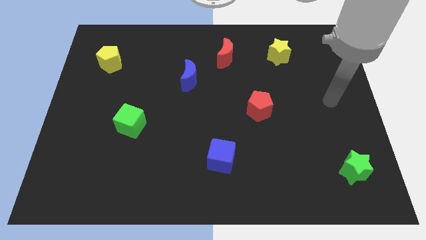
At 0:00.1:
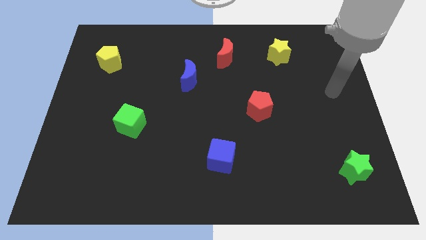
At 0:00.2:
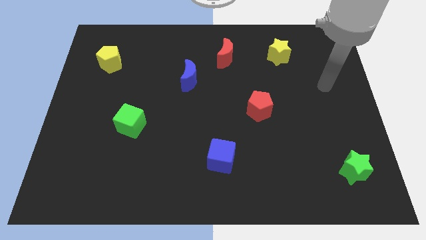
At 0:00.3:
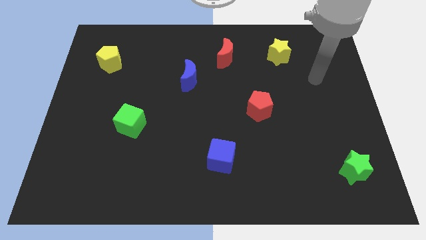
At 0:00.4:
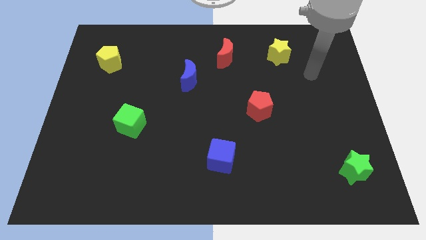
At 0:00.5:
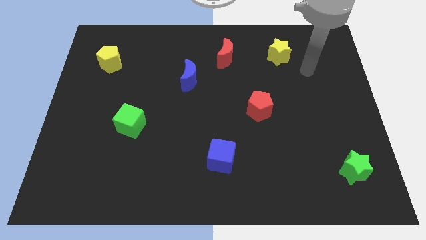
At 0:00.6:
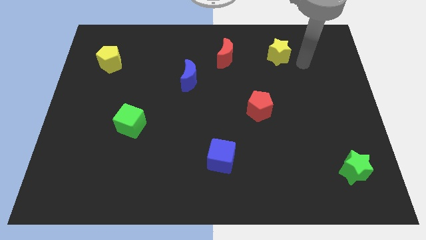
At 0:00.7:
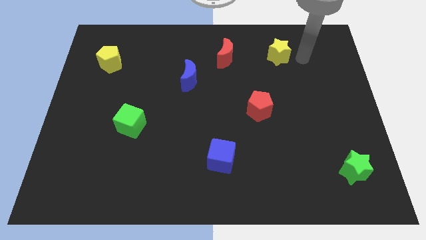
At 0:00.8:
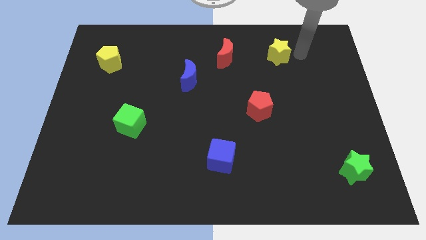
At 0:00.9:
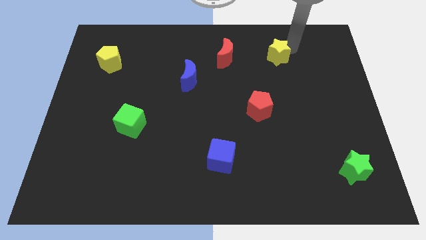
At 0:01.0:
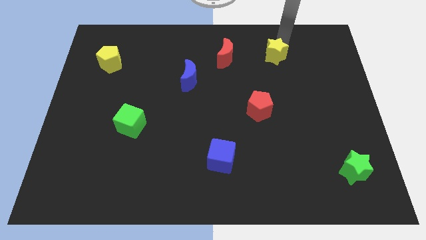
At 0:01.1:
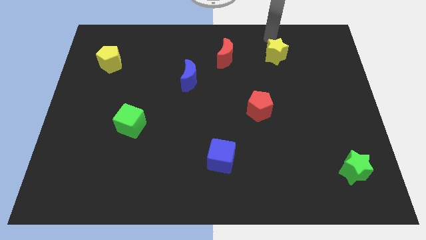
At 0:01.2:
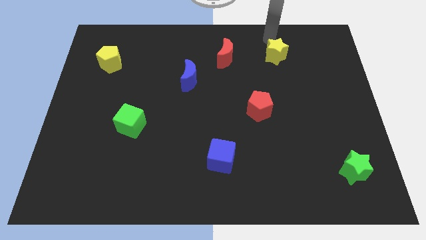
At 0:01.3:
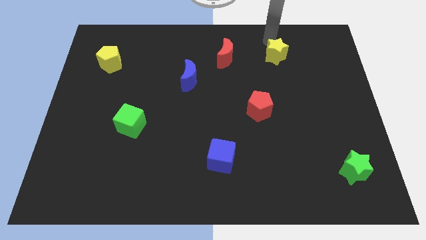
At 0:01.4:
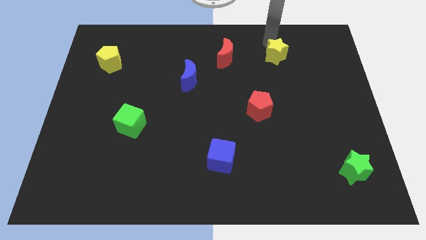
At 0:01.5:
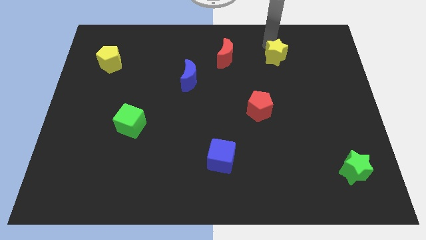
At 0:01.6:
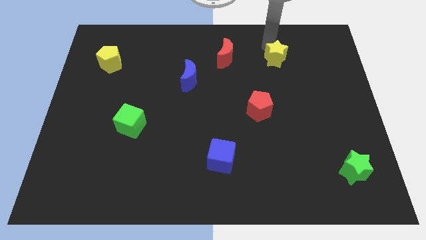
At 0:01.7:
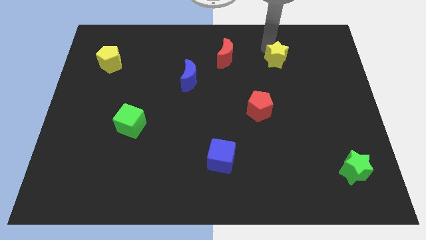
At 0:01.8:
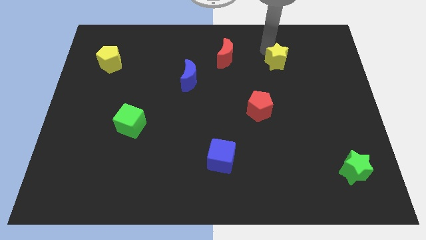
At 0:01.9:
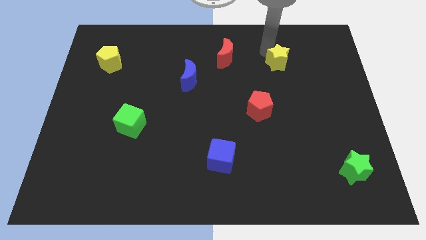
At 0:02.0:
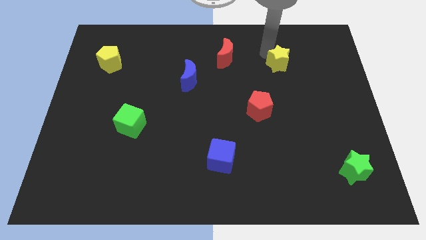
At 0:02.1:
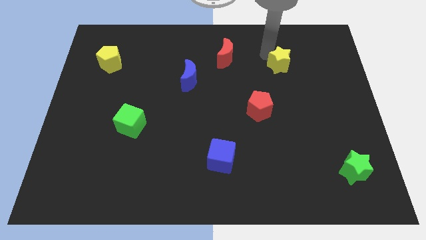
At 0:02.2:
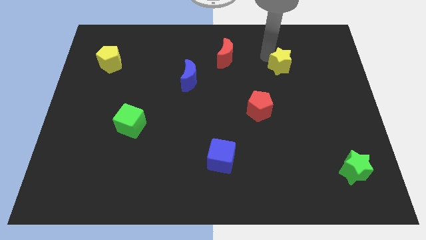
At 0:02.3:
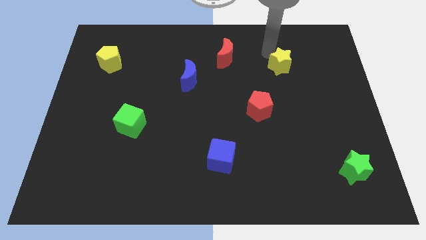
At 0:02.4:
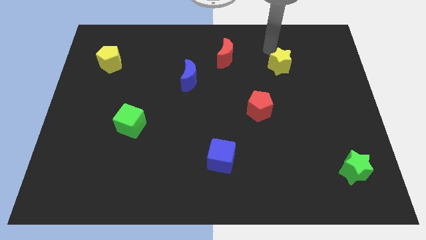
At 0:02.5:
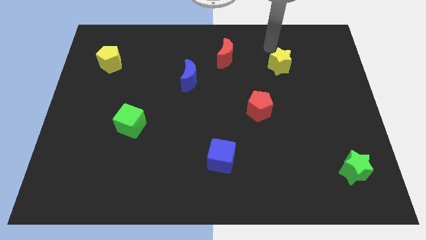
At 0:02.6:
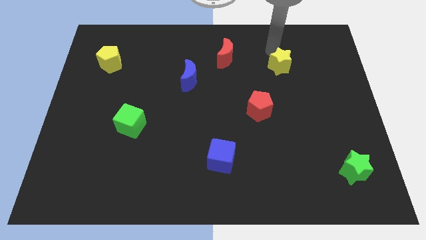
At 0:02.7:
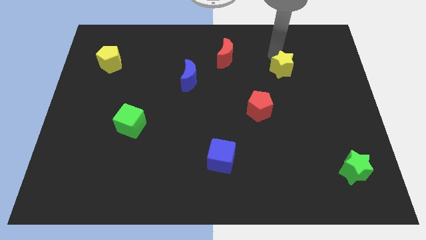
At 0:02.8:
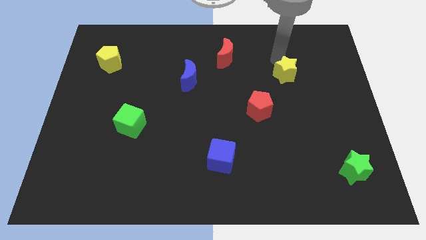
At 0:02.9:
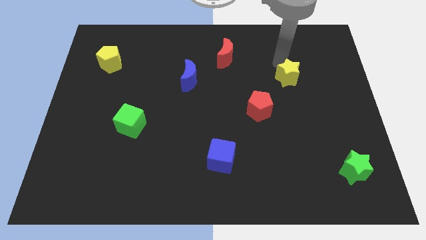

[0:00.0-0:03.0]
slightly slide the yellow star down

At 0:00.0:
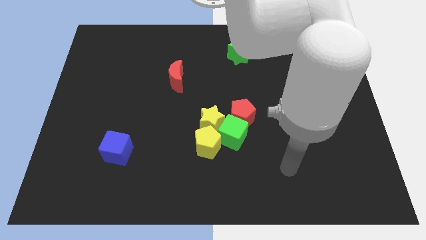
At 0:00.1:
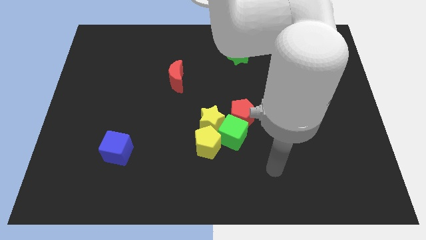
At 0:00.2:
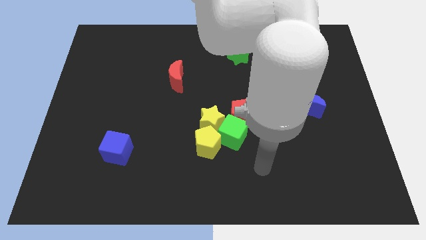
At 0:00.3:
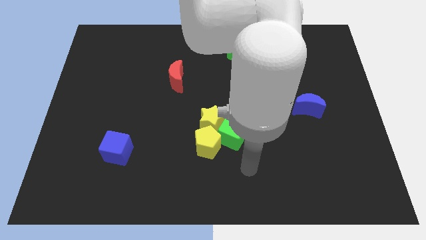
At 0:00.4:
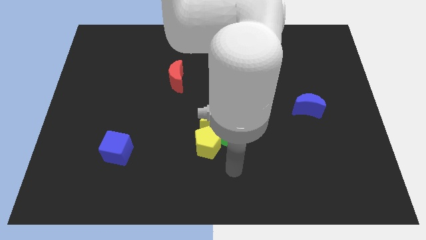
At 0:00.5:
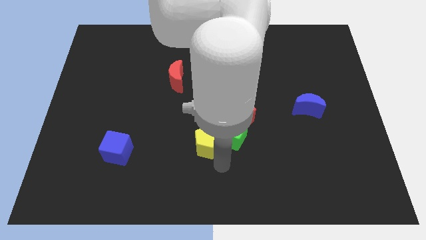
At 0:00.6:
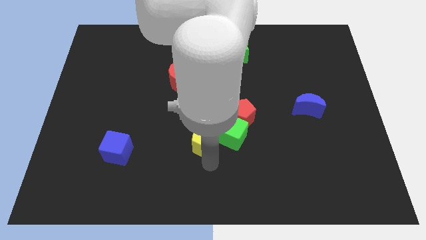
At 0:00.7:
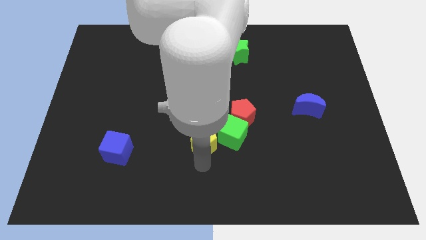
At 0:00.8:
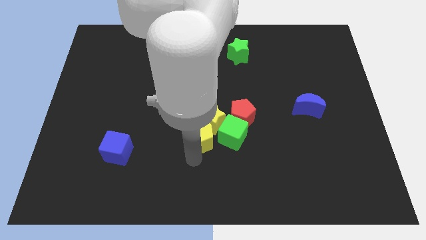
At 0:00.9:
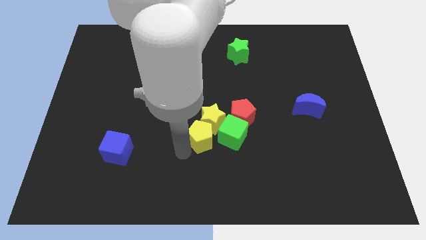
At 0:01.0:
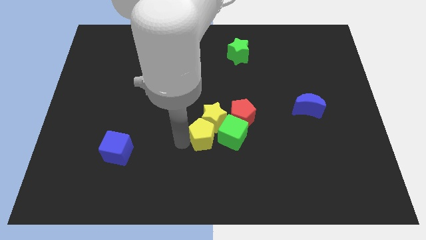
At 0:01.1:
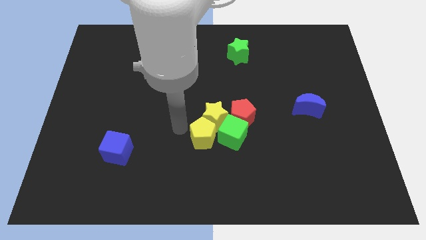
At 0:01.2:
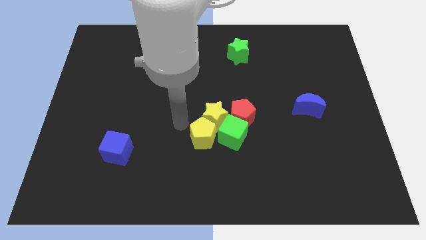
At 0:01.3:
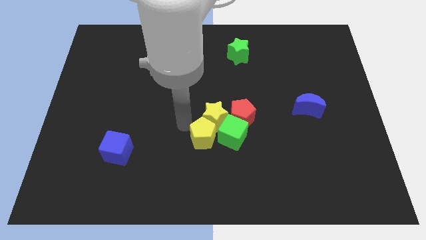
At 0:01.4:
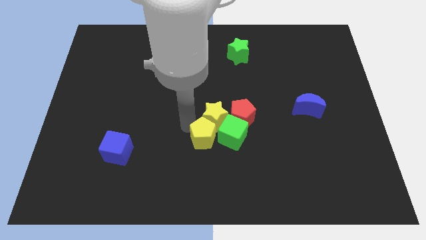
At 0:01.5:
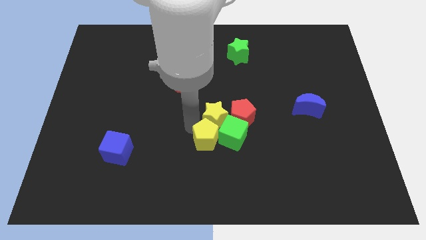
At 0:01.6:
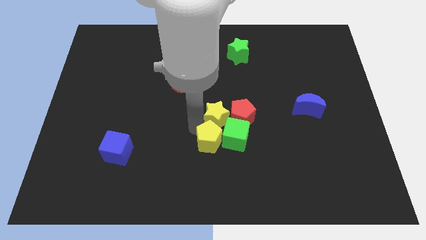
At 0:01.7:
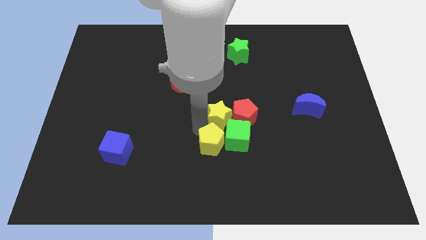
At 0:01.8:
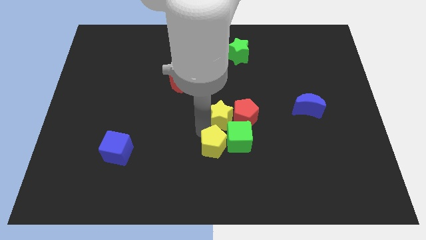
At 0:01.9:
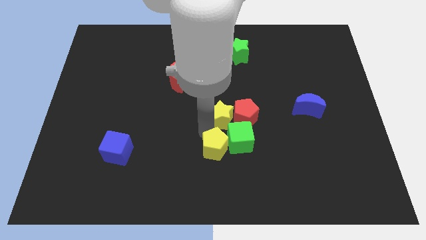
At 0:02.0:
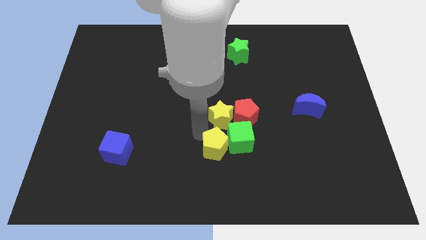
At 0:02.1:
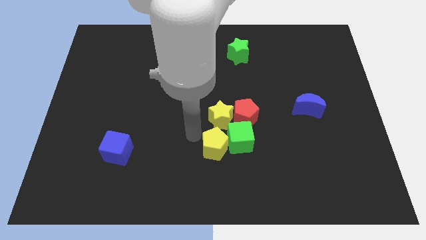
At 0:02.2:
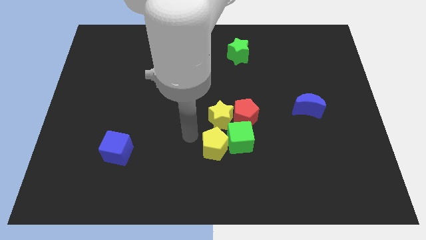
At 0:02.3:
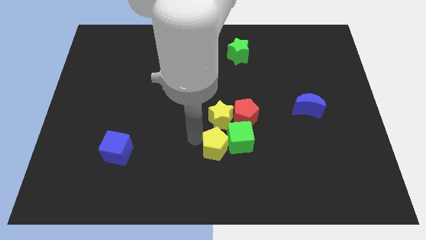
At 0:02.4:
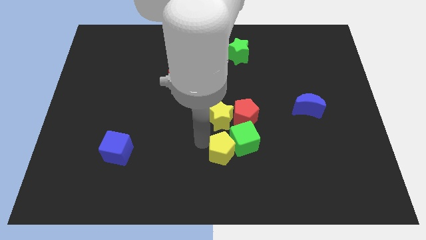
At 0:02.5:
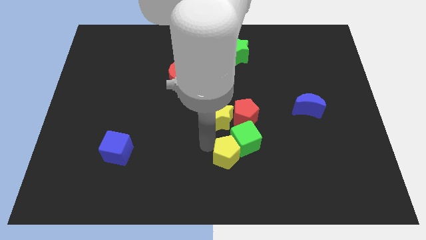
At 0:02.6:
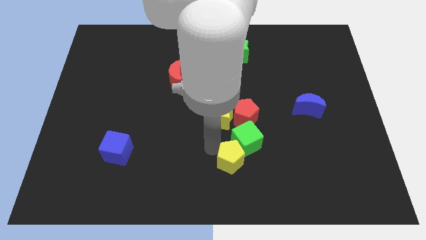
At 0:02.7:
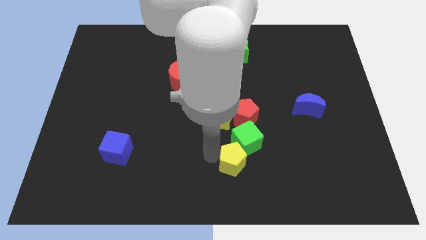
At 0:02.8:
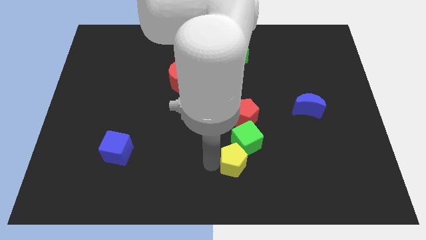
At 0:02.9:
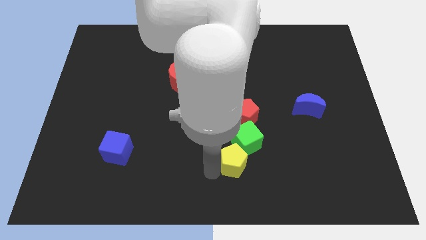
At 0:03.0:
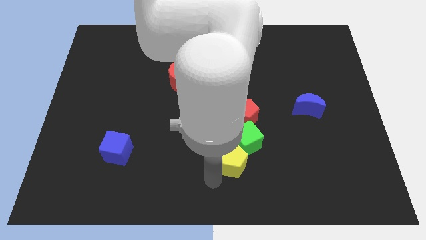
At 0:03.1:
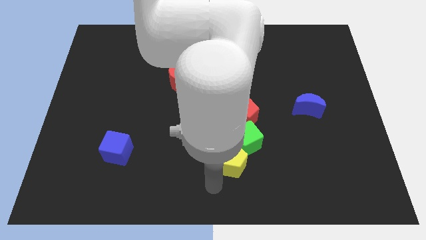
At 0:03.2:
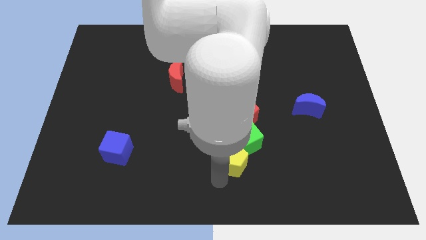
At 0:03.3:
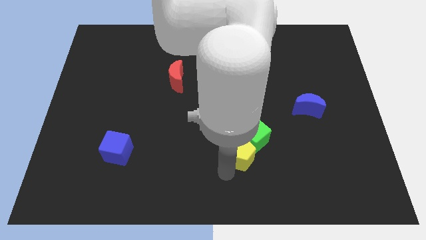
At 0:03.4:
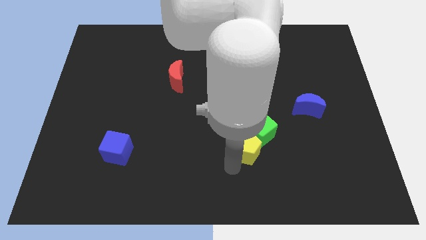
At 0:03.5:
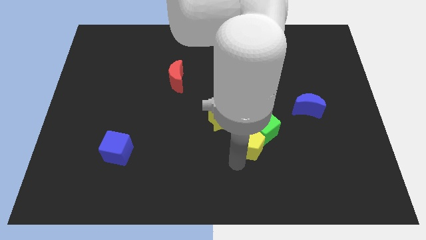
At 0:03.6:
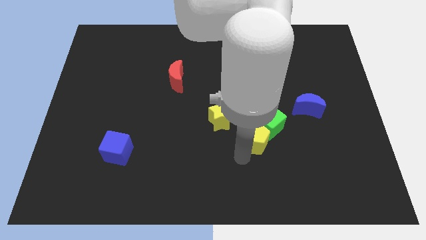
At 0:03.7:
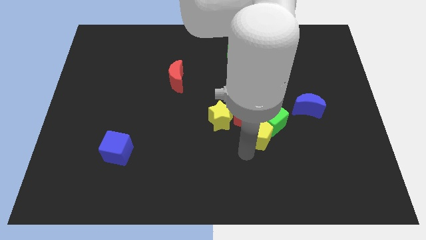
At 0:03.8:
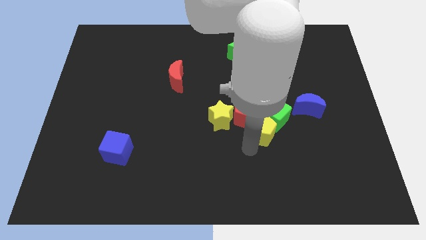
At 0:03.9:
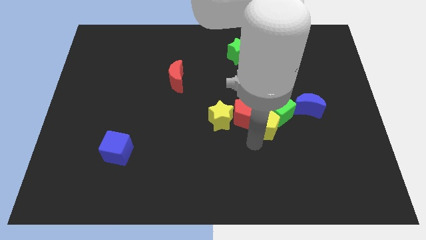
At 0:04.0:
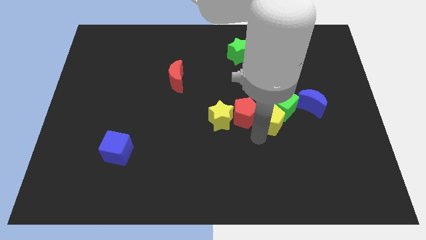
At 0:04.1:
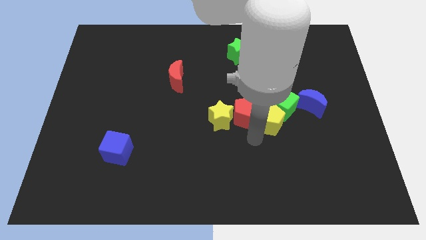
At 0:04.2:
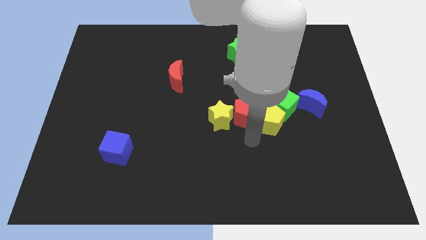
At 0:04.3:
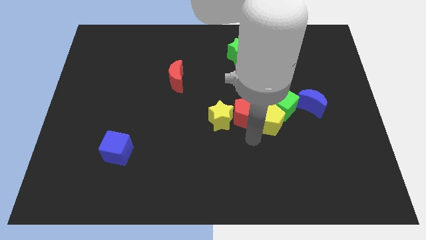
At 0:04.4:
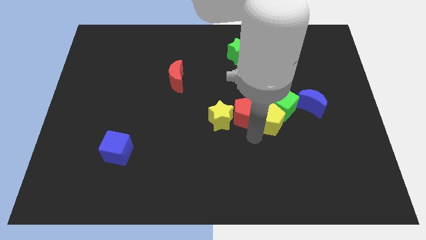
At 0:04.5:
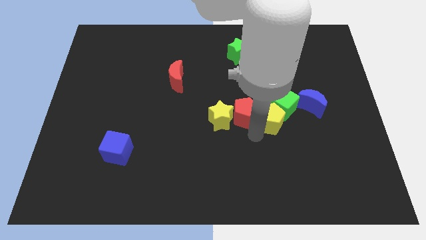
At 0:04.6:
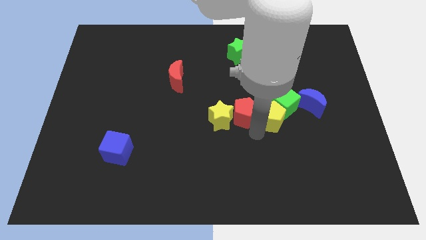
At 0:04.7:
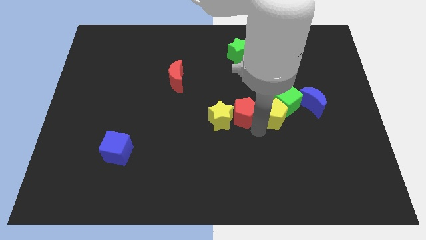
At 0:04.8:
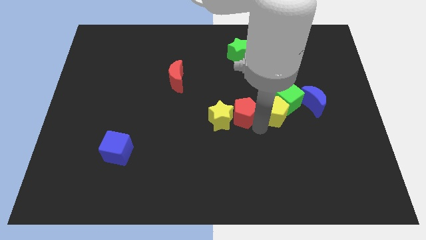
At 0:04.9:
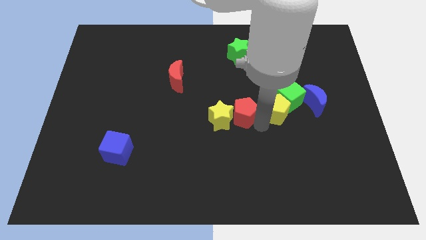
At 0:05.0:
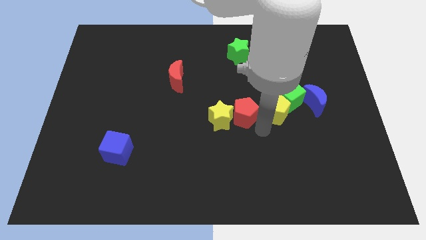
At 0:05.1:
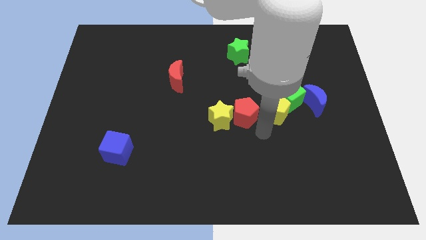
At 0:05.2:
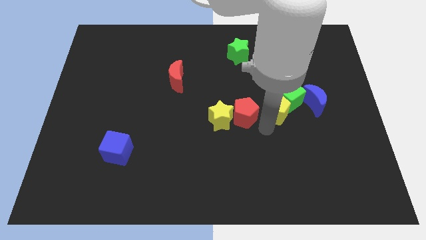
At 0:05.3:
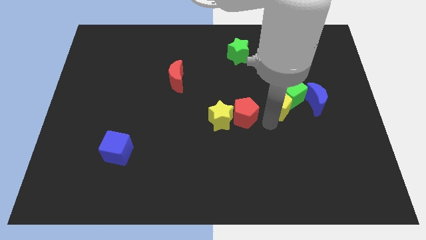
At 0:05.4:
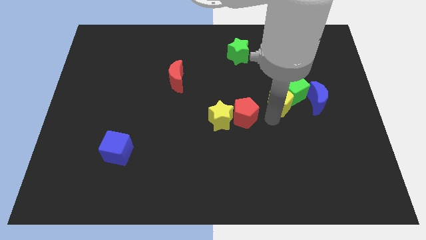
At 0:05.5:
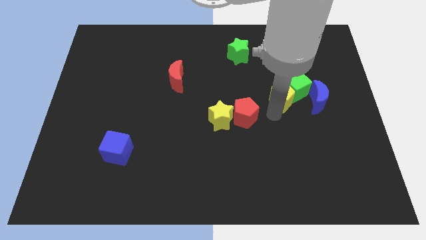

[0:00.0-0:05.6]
push the yellow pentagon upwards and to the right

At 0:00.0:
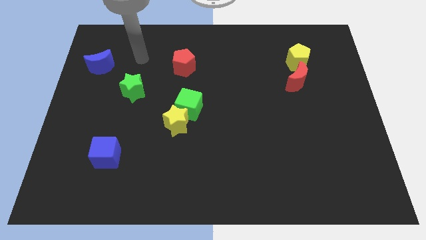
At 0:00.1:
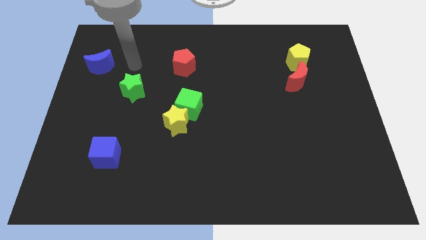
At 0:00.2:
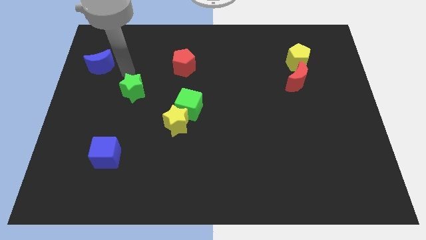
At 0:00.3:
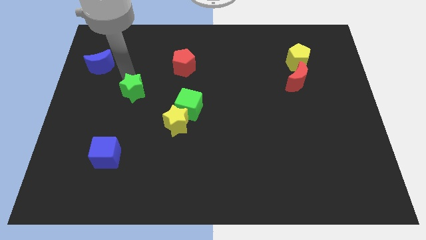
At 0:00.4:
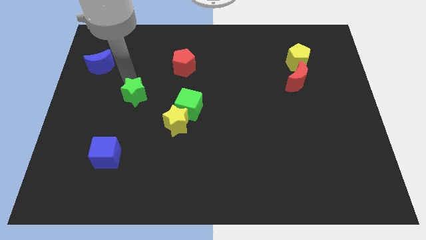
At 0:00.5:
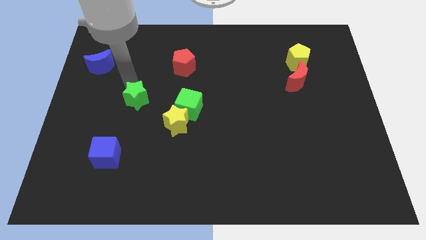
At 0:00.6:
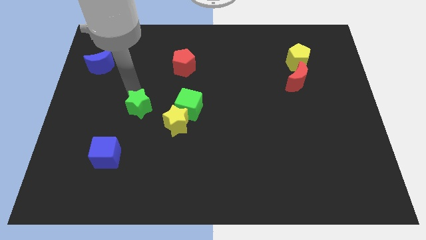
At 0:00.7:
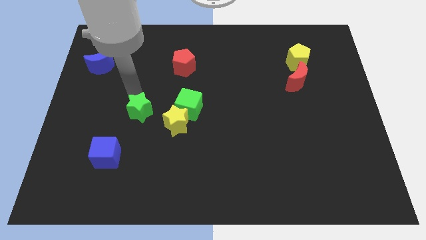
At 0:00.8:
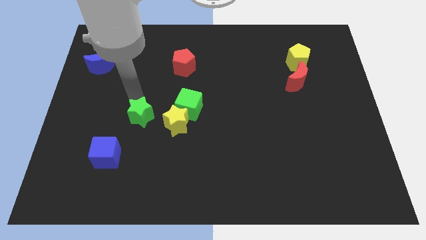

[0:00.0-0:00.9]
slightly slide the green star down and right diagonally
